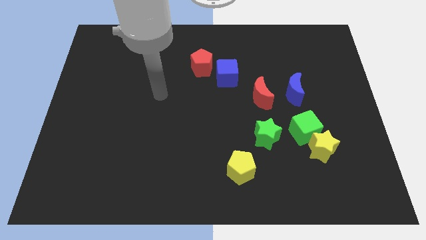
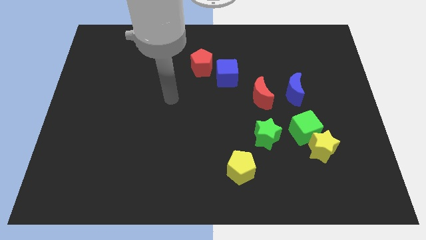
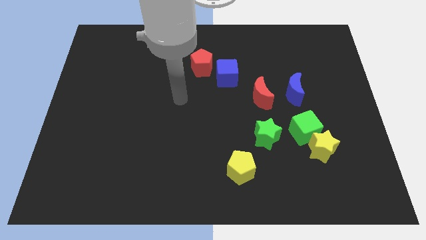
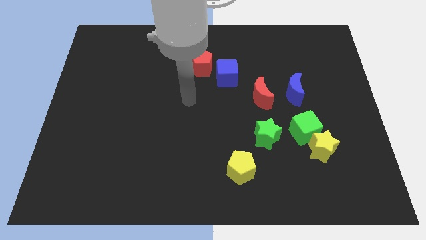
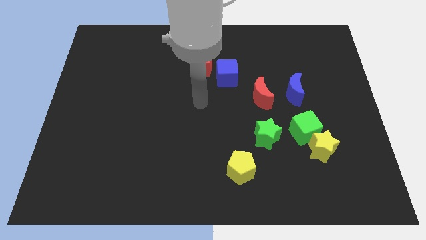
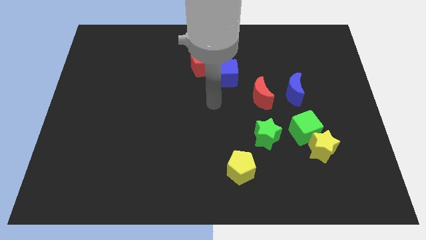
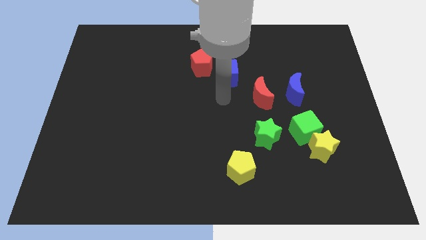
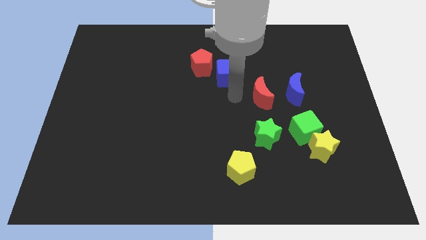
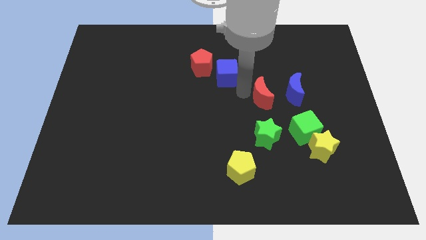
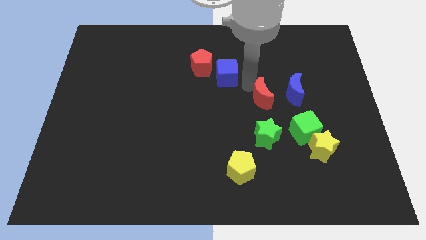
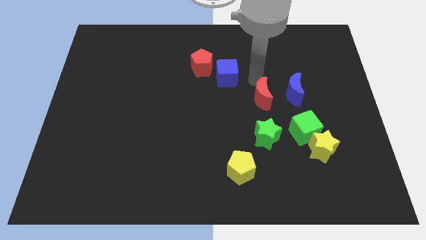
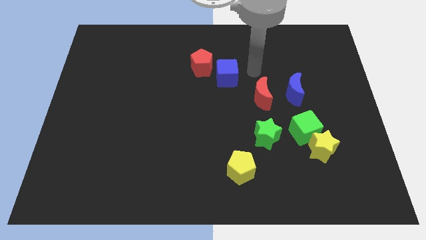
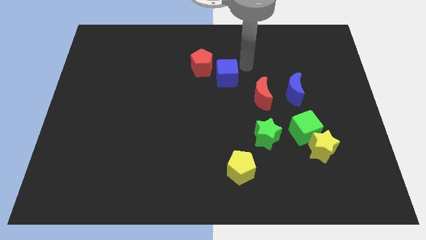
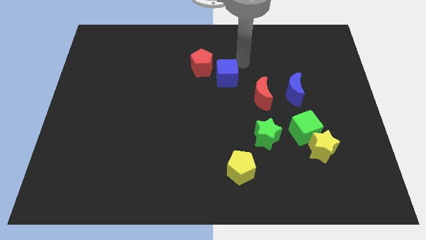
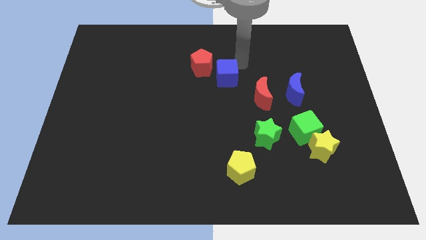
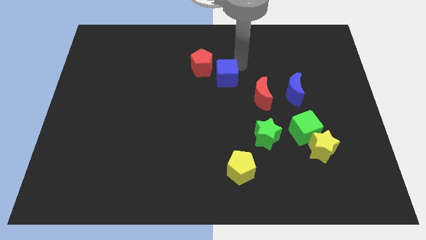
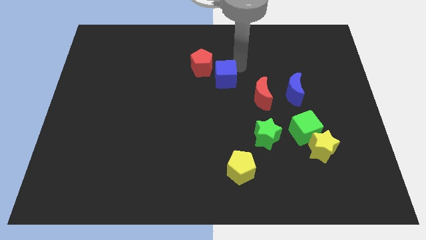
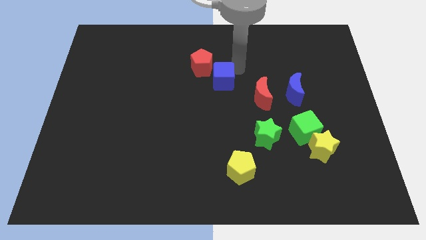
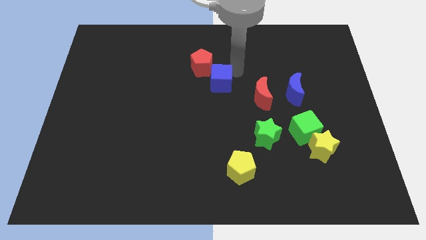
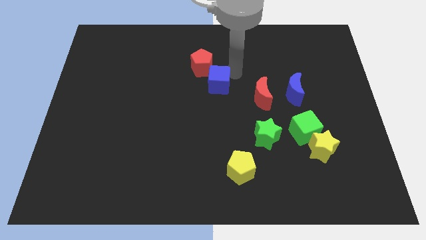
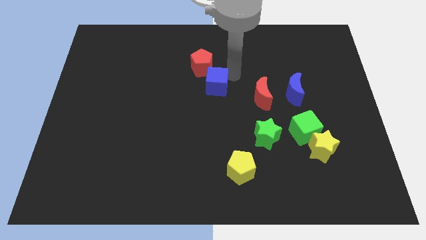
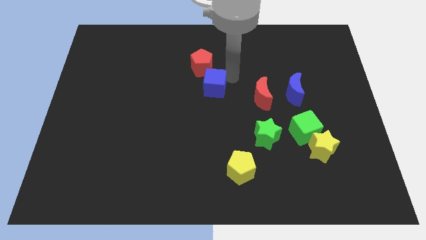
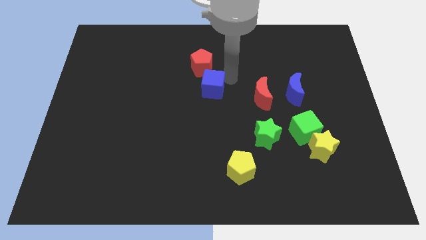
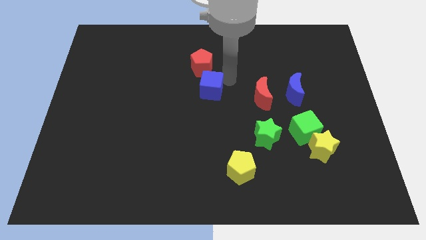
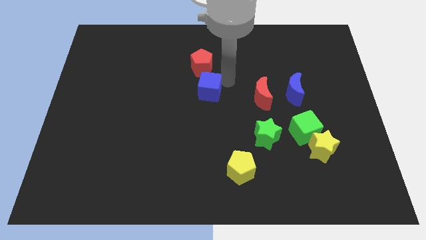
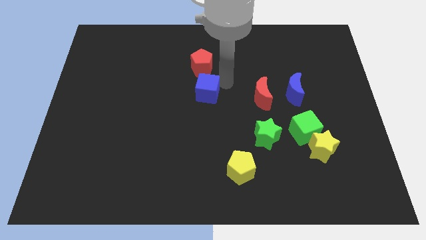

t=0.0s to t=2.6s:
push the blue cube slightly diagonally downwards and to the left

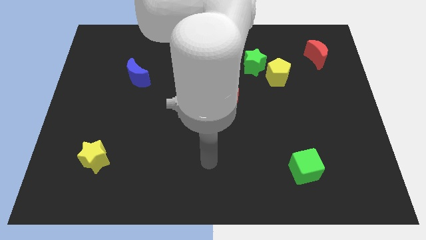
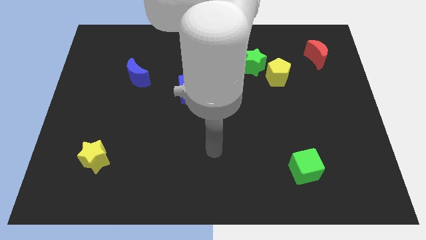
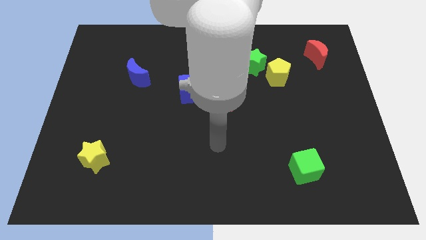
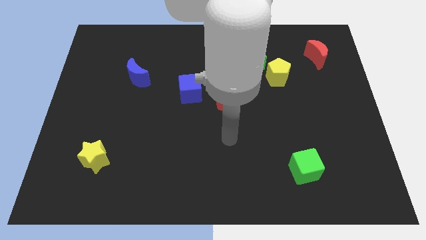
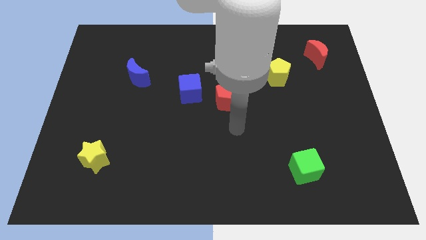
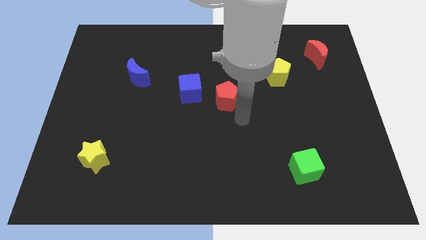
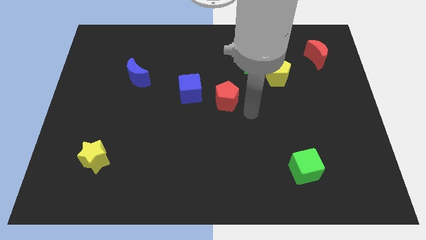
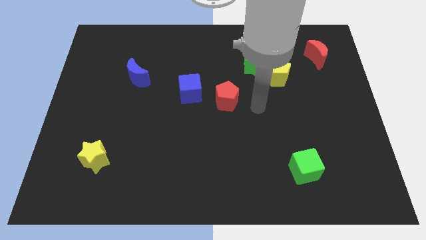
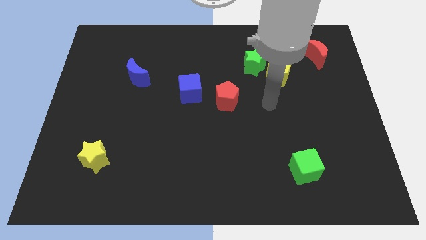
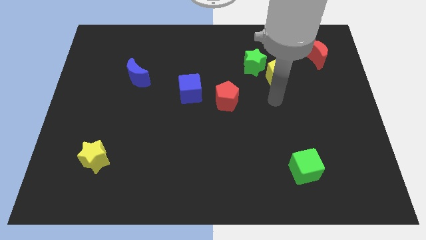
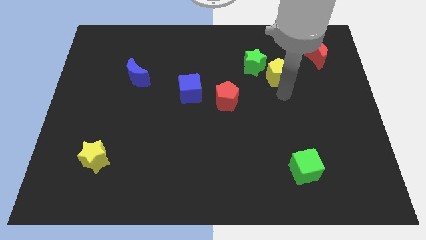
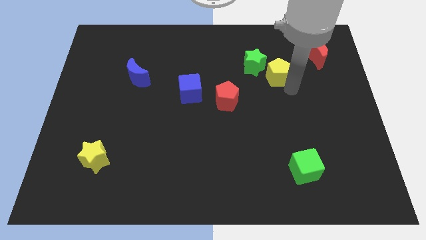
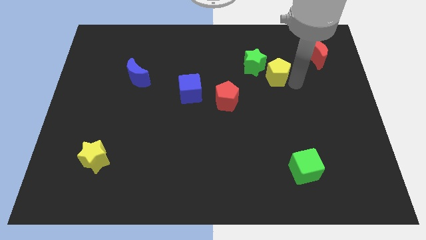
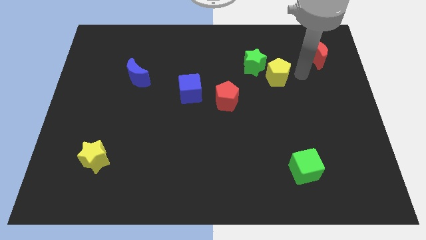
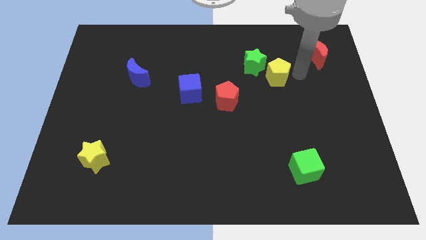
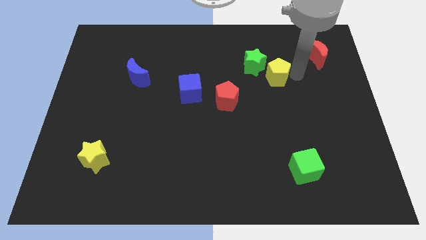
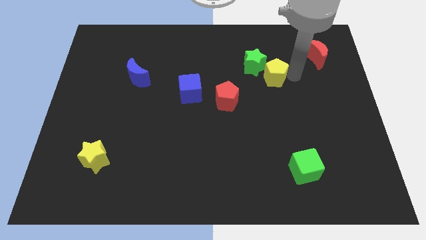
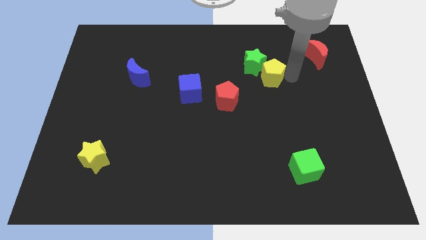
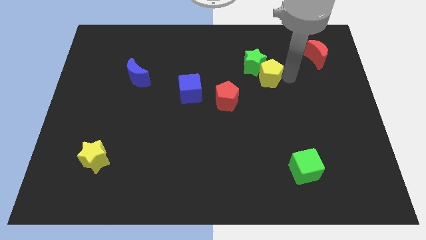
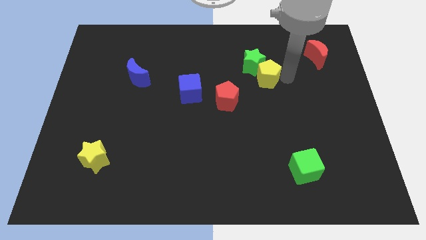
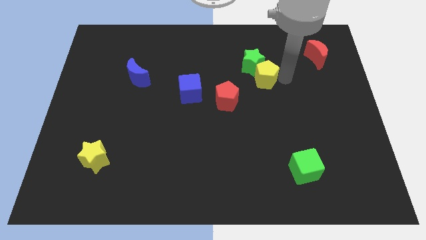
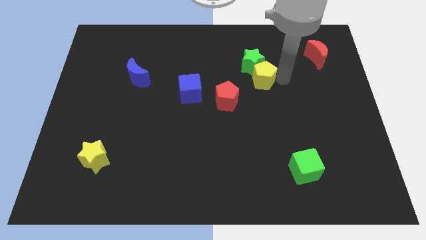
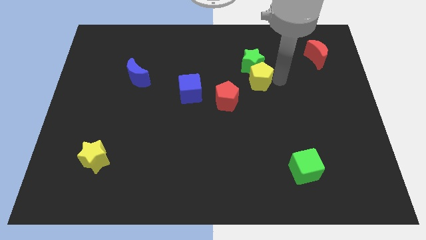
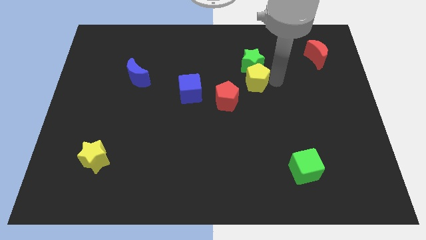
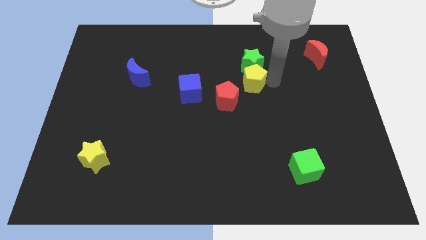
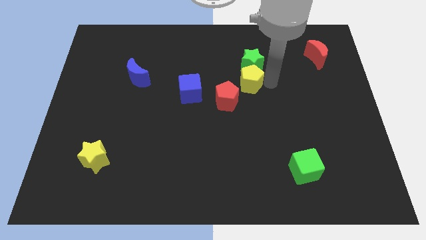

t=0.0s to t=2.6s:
slightly push the yellow pentagon to the left

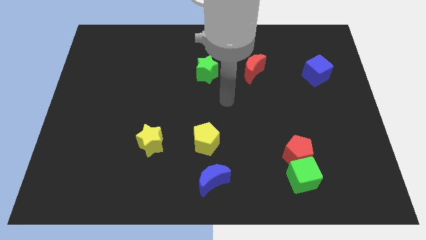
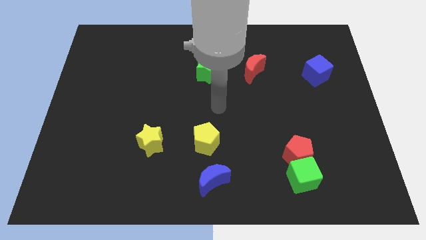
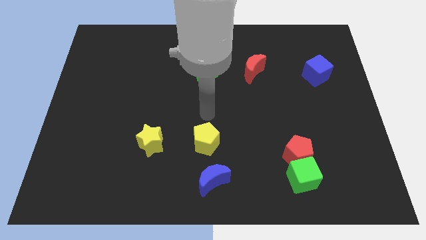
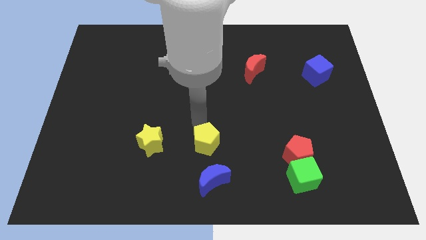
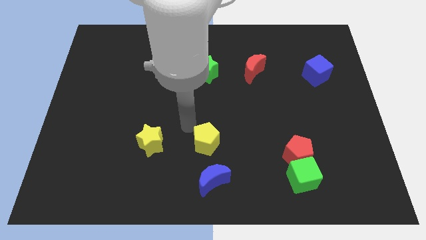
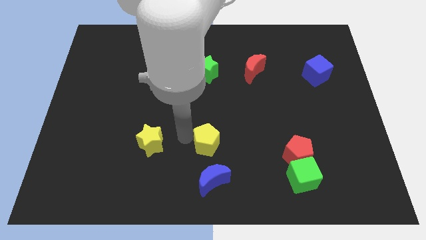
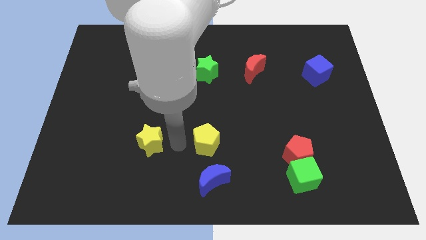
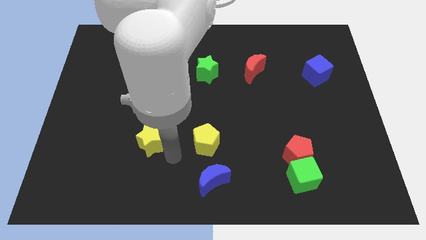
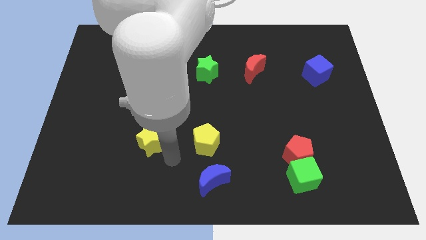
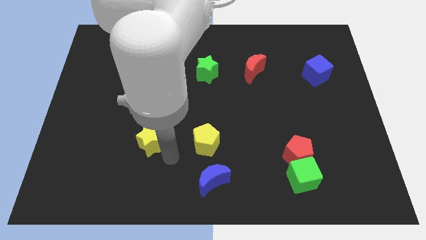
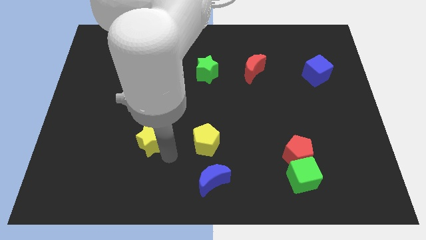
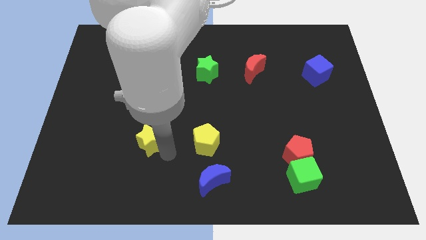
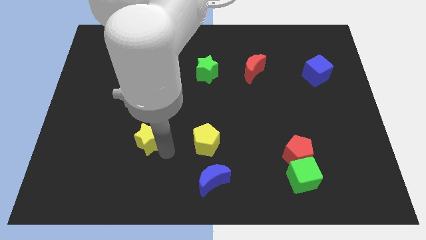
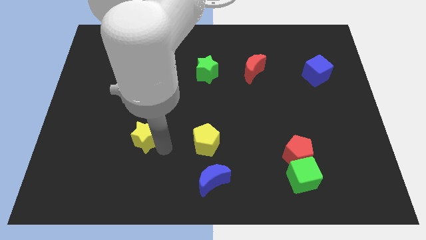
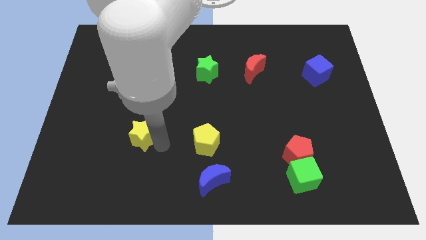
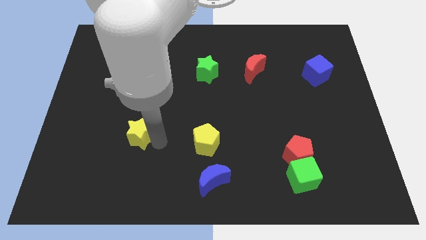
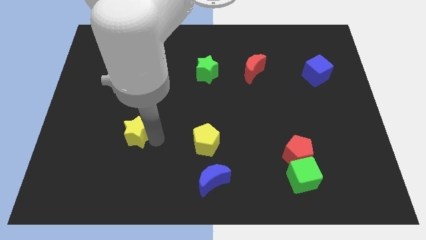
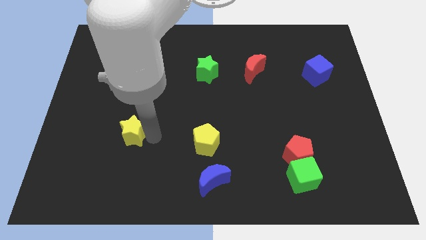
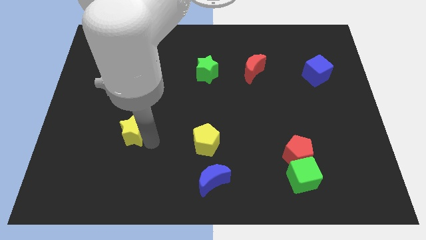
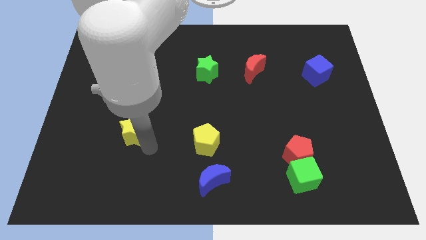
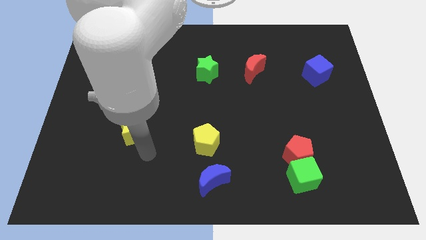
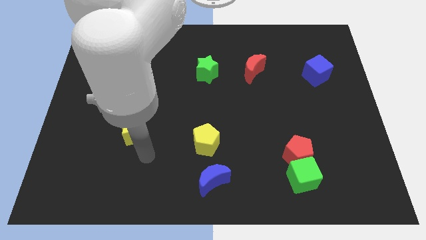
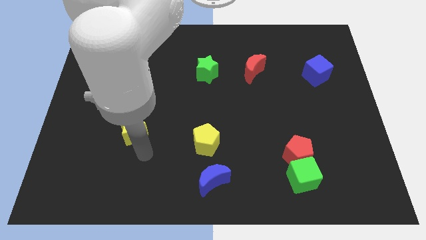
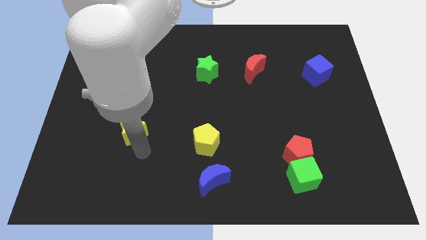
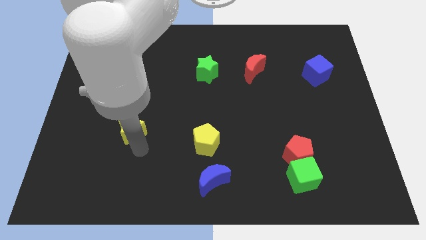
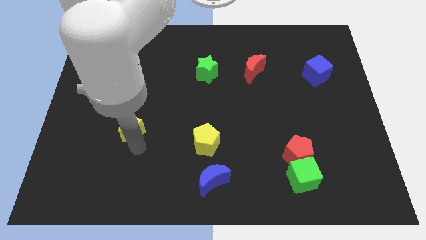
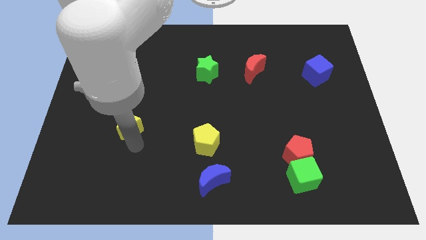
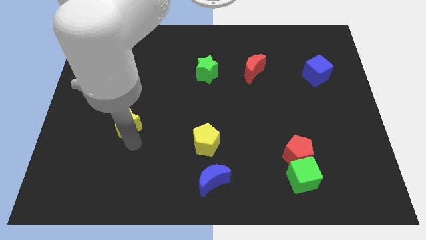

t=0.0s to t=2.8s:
push the yellow star a bit upwards and left

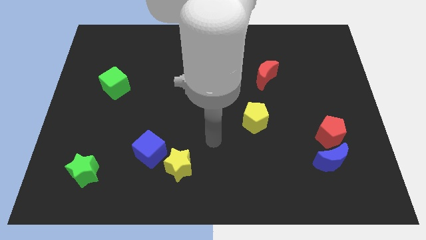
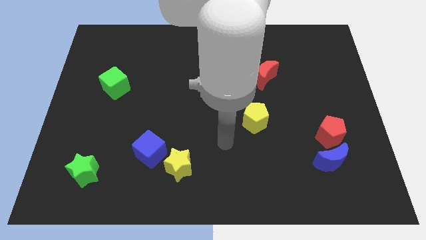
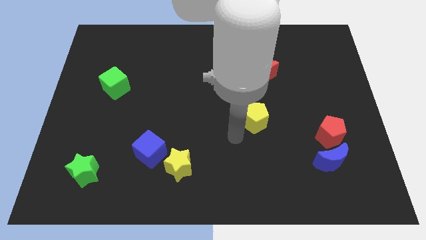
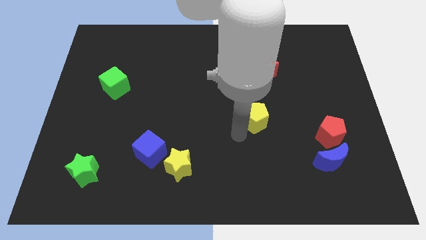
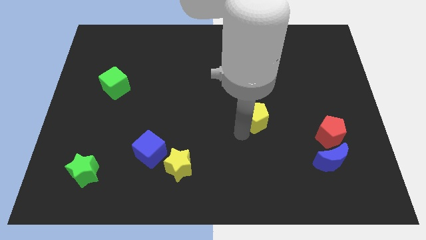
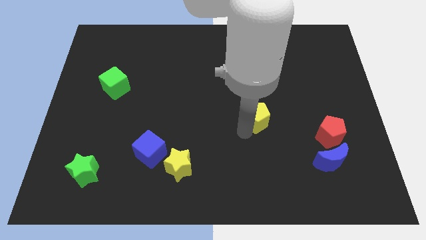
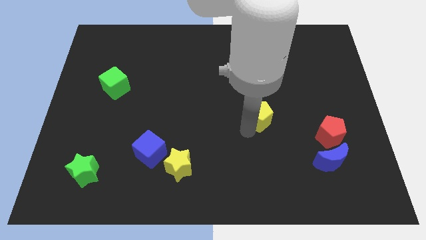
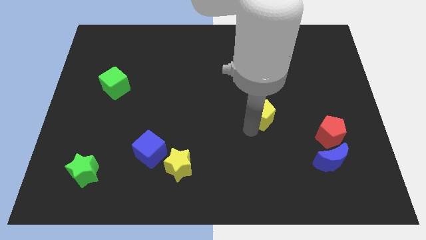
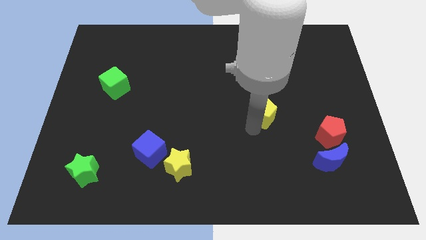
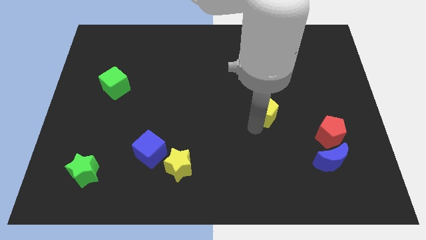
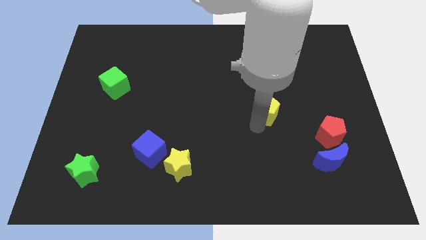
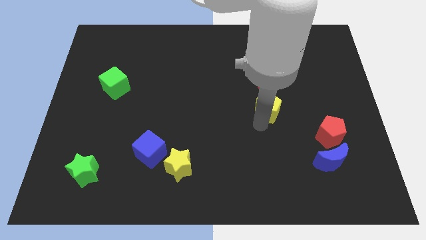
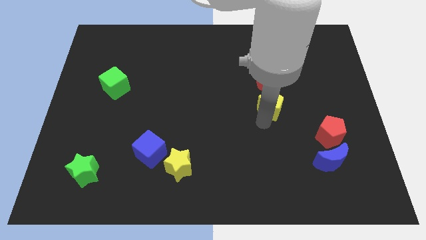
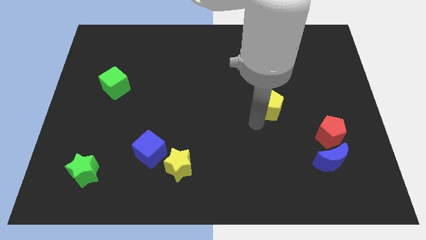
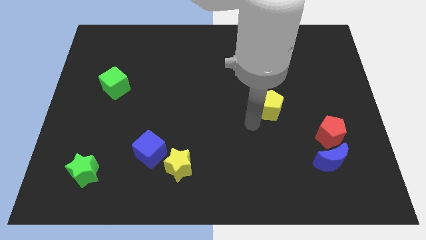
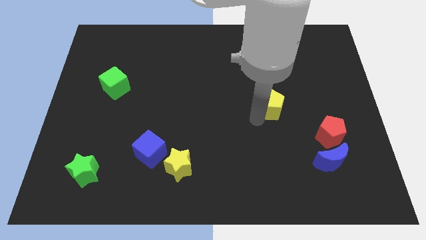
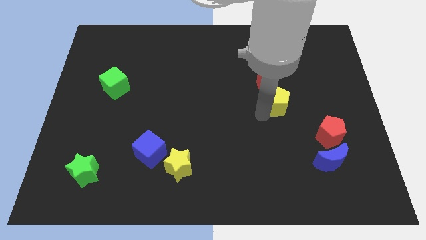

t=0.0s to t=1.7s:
push the yellow pentagon a bit upwards and right
